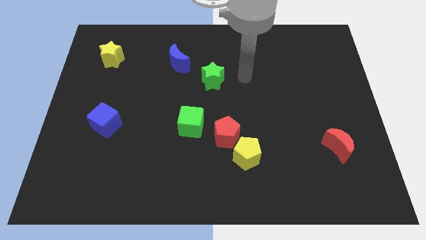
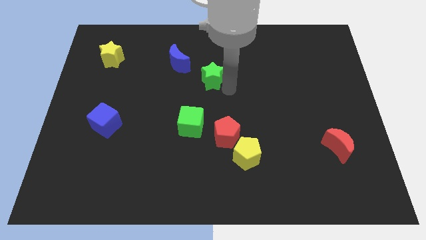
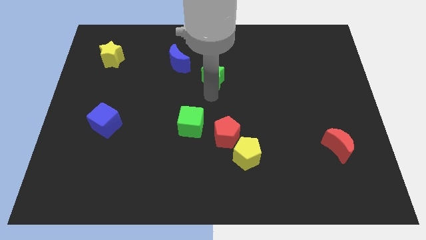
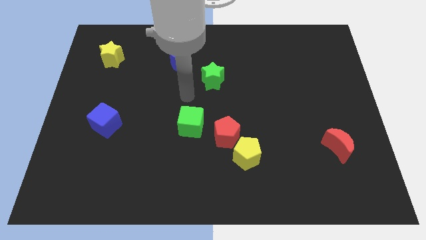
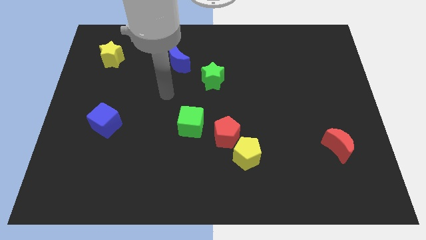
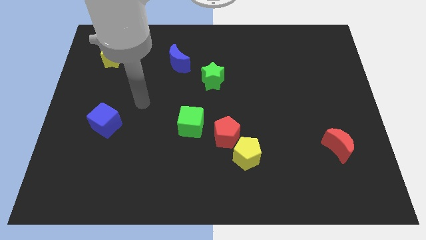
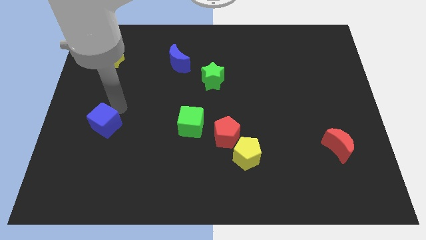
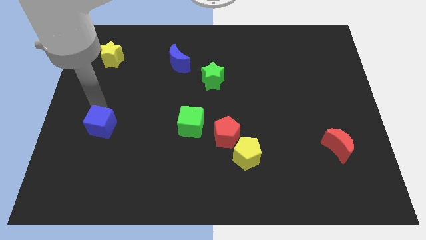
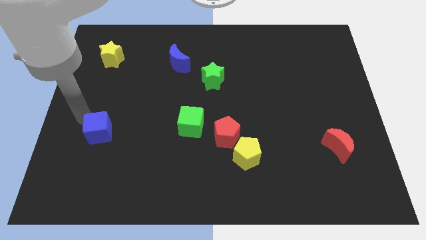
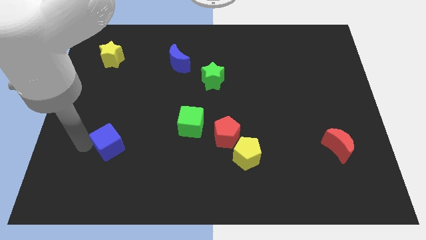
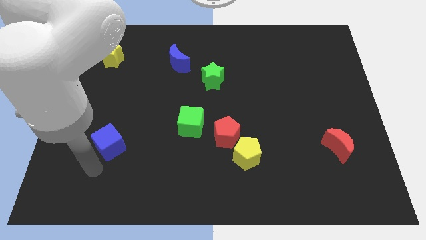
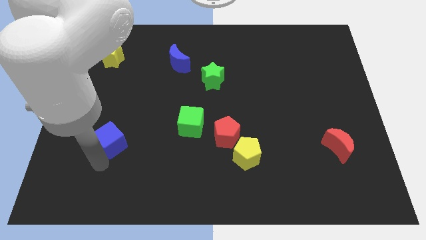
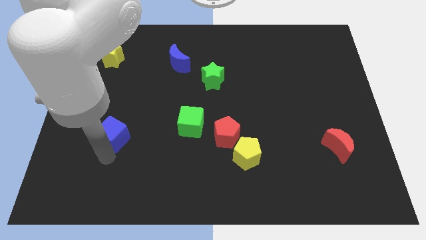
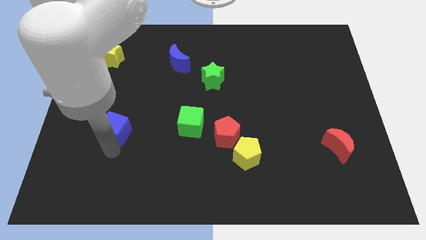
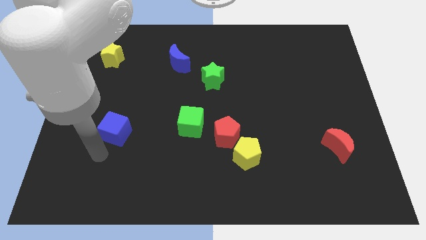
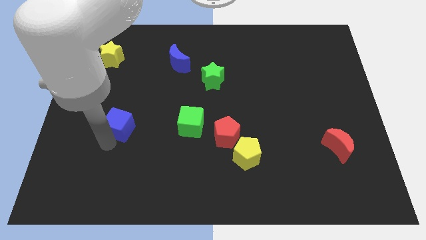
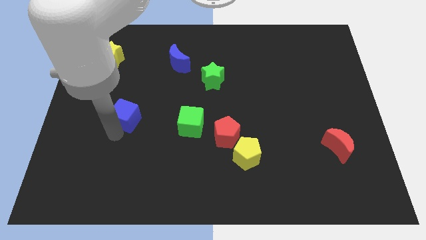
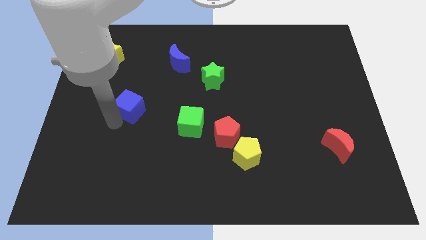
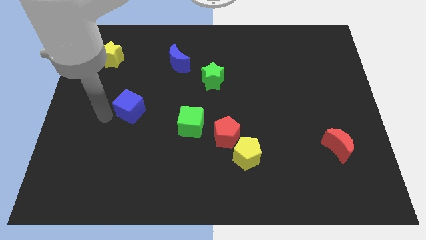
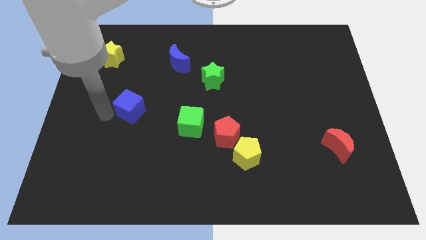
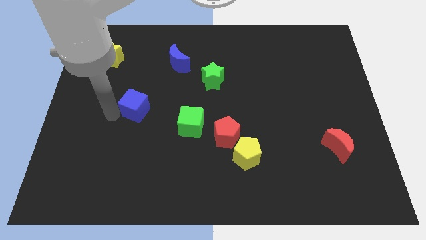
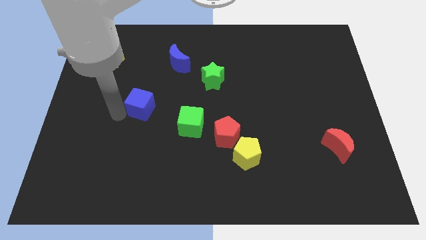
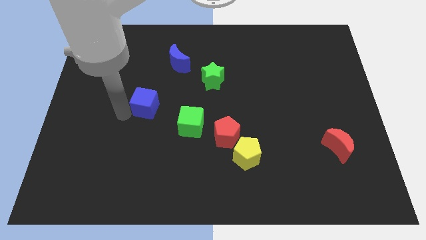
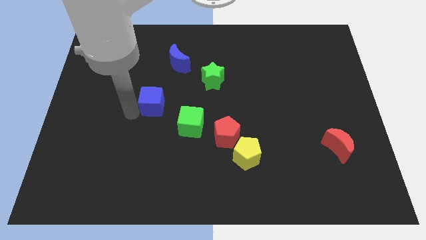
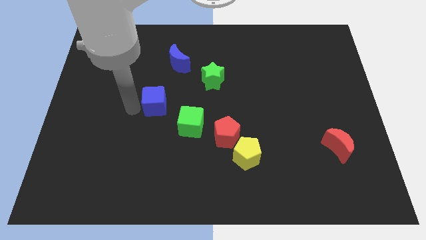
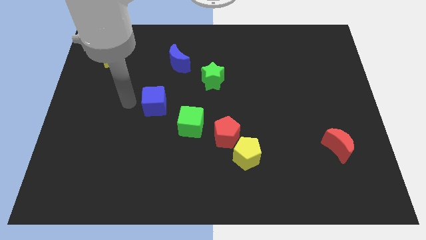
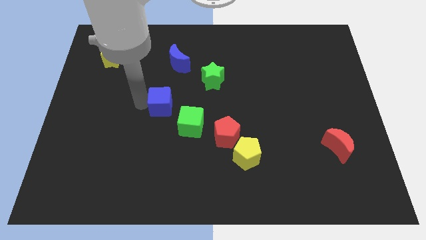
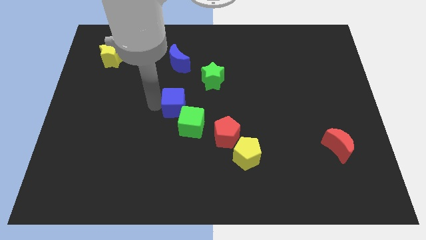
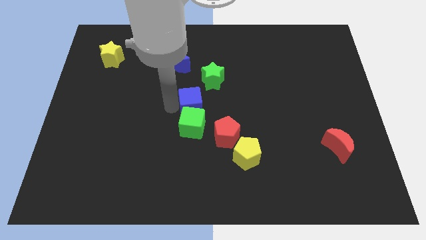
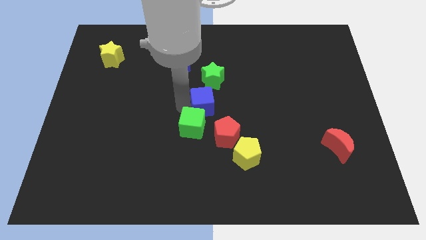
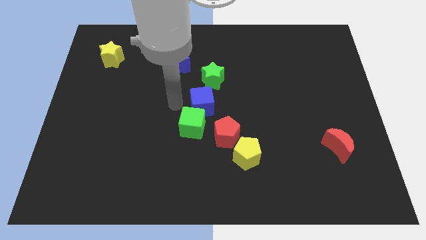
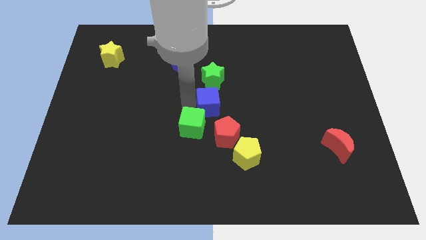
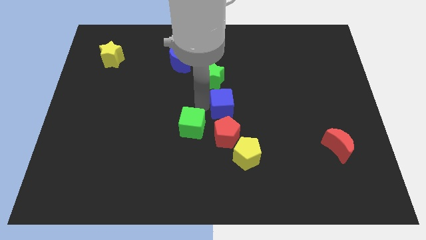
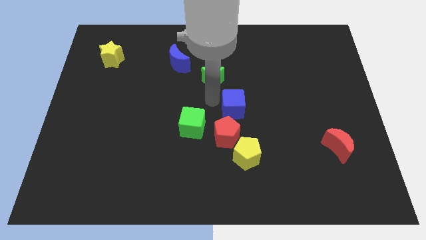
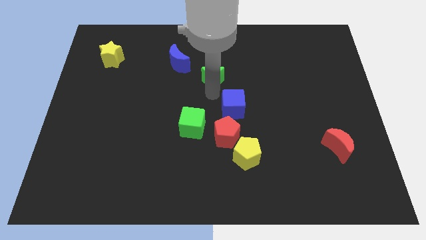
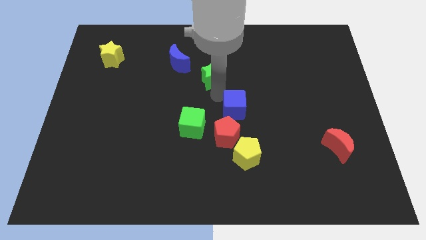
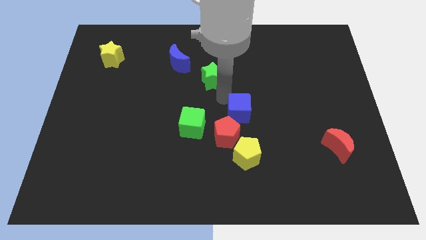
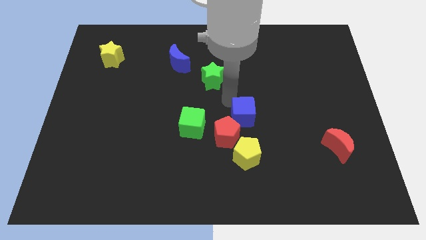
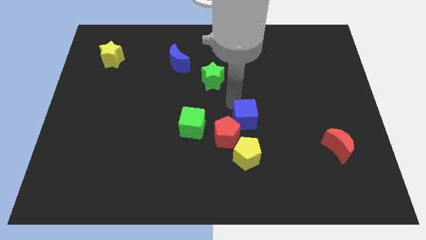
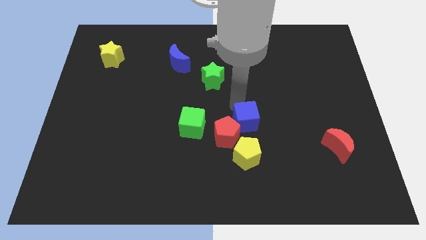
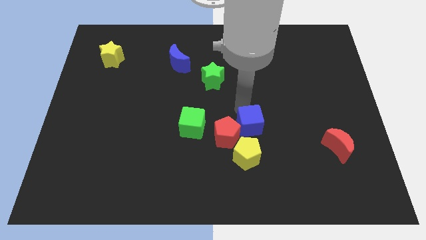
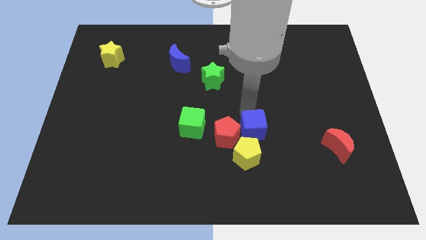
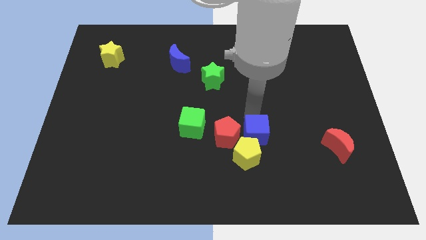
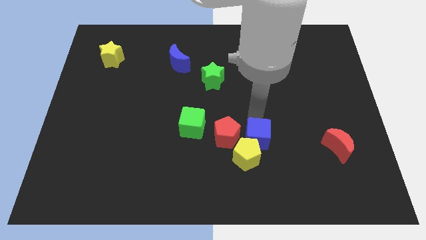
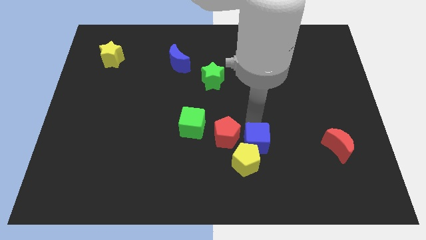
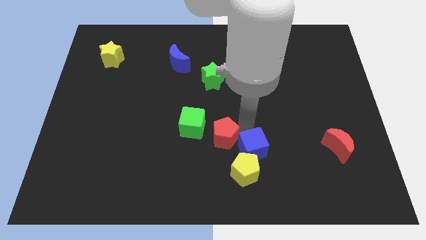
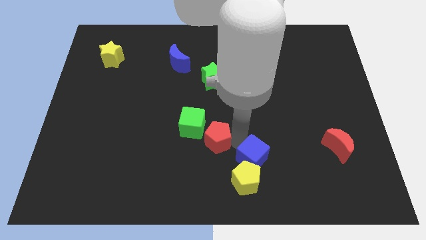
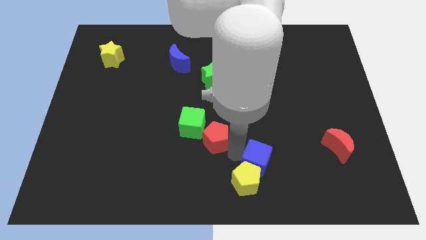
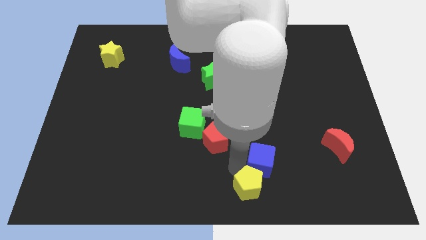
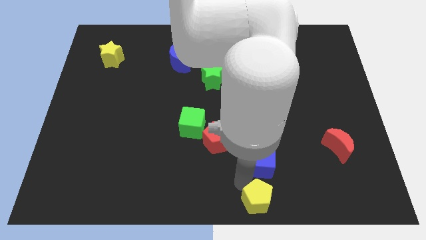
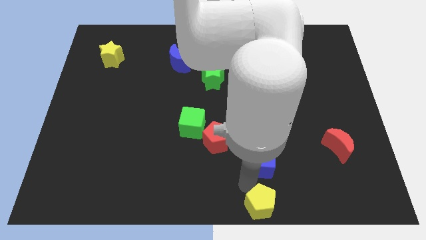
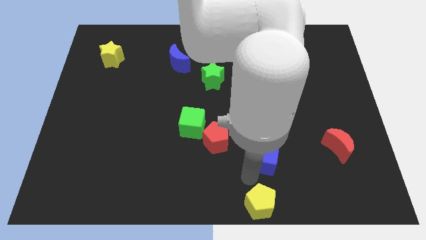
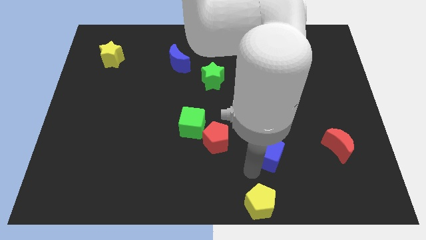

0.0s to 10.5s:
push the blue cube to the left side of the red moon

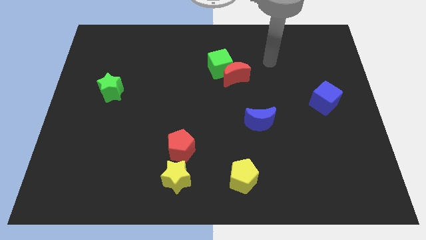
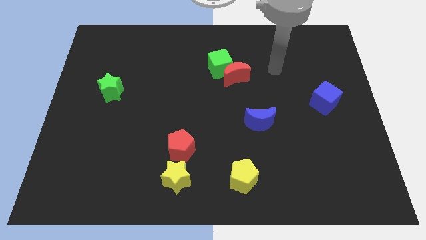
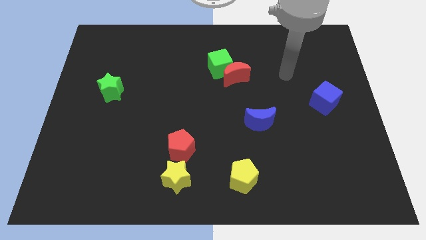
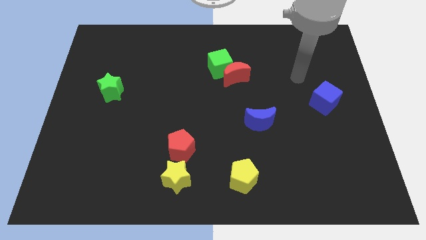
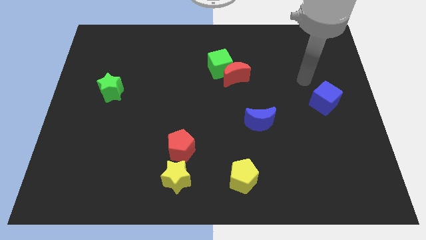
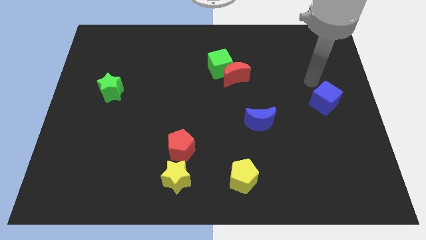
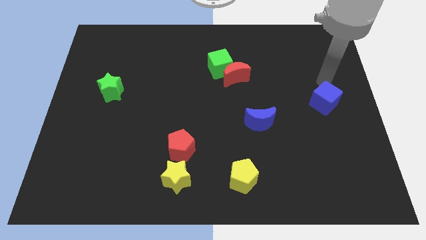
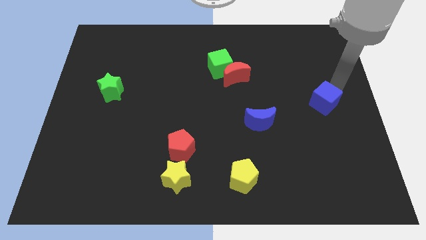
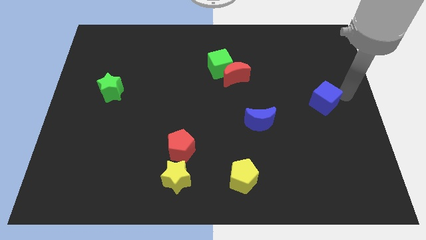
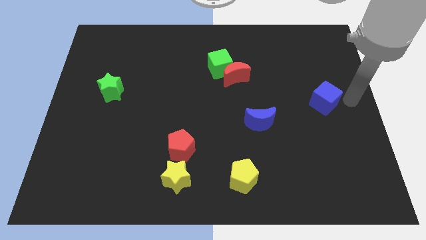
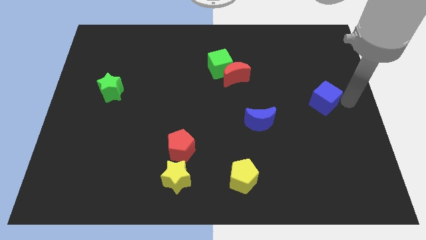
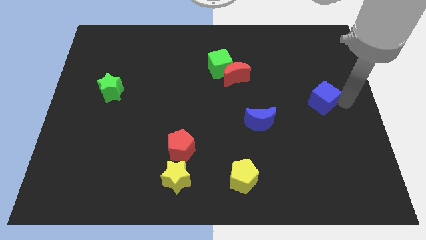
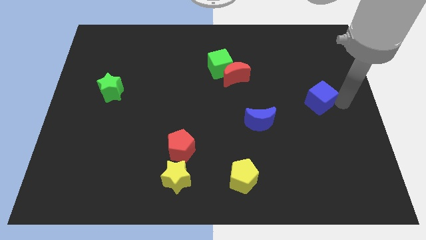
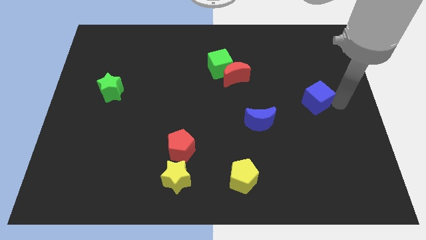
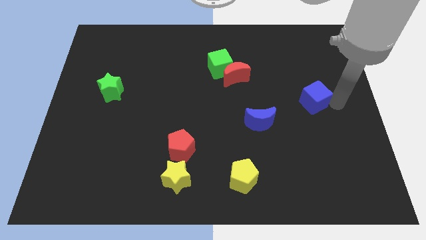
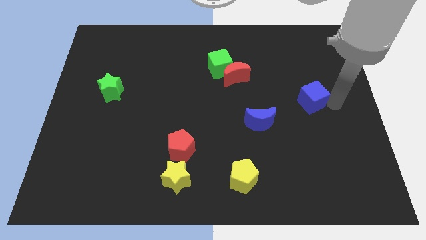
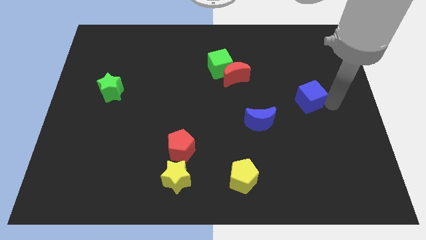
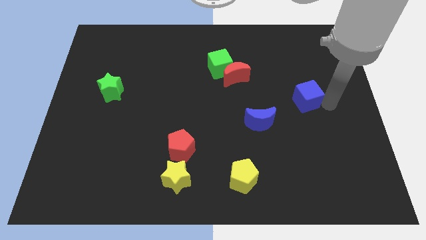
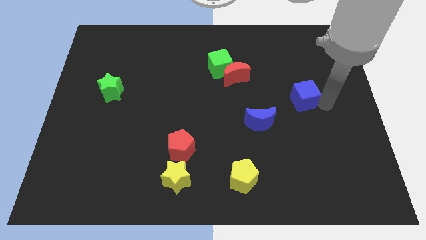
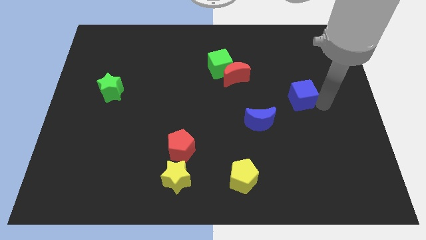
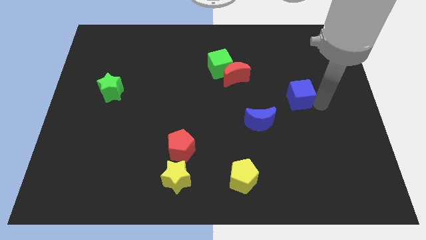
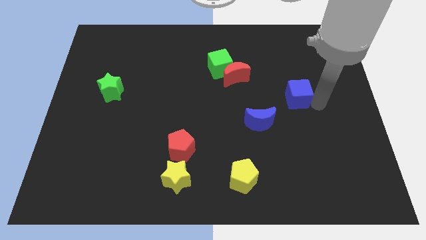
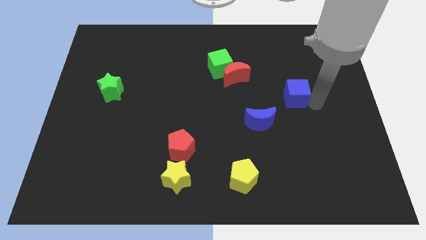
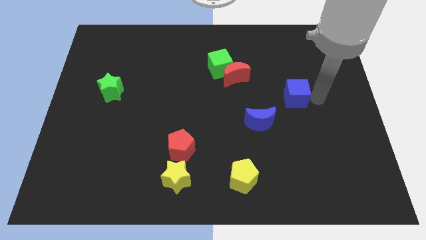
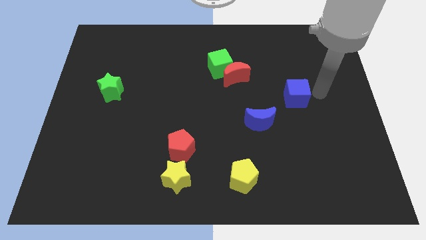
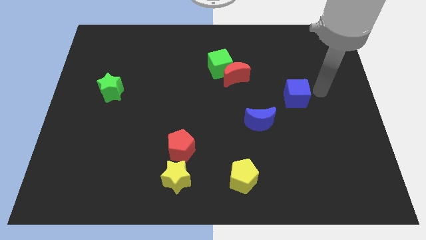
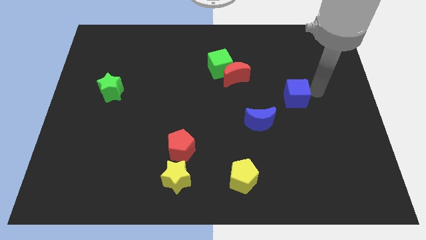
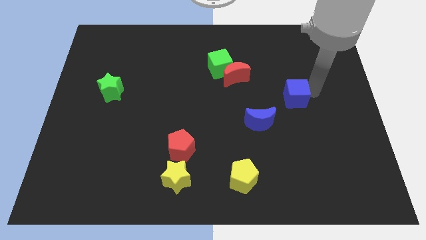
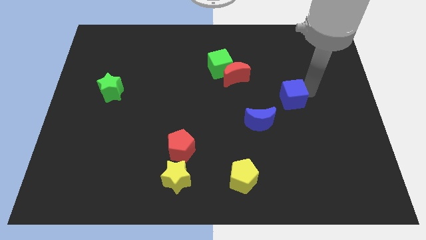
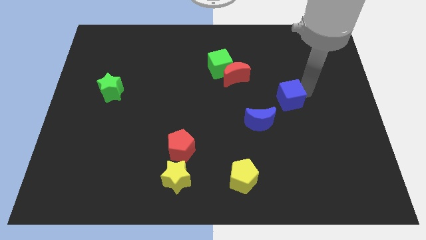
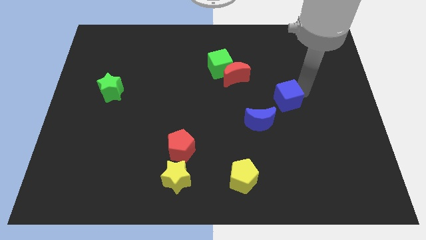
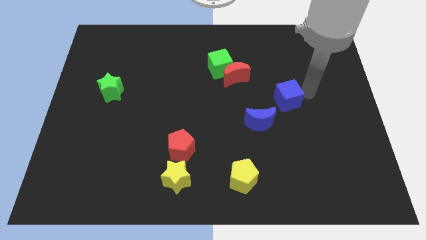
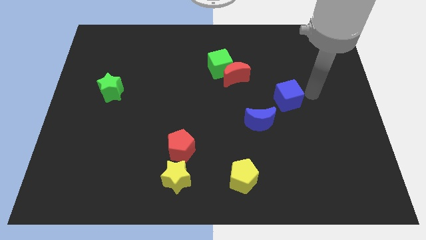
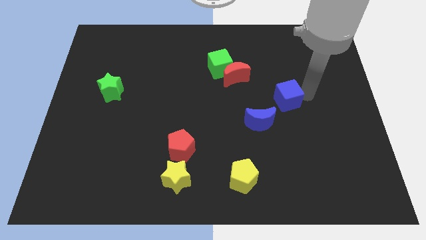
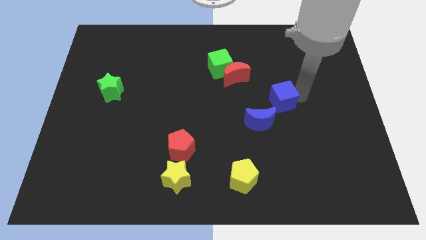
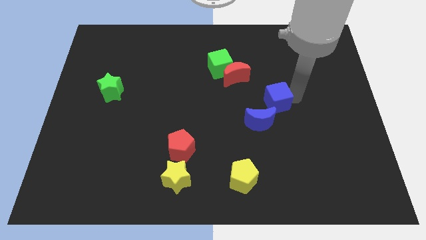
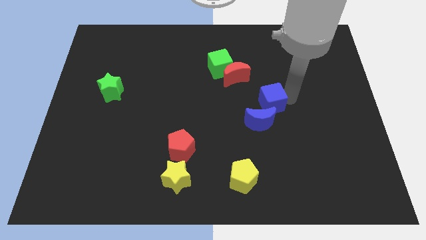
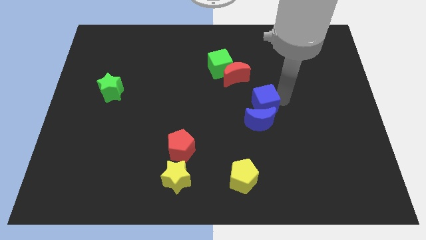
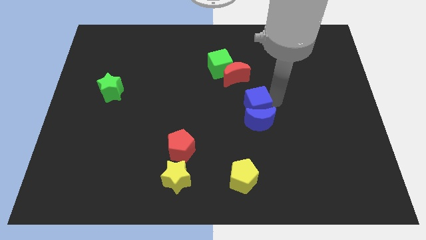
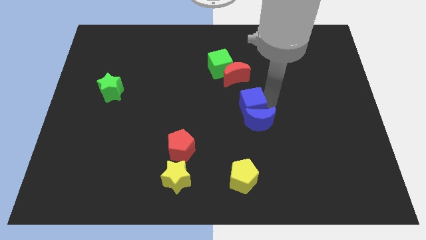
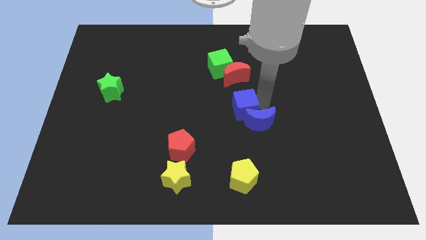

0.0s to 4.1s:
move the blue cube left of the blue moon
